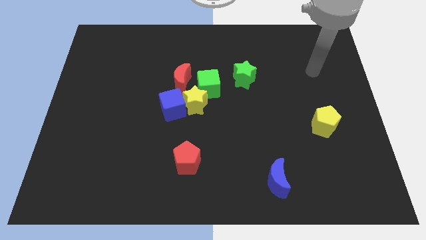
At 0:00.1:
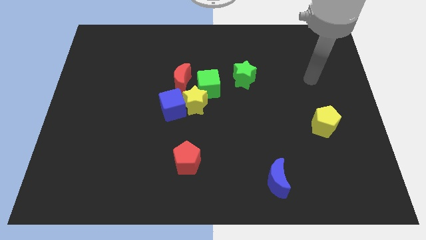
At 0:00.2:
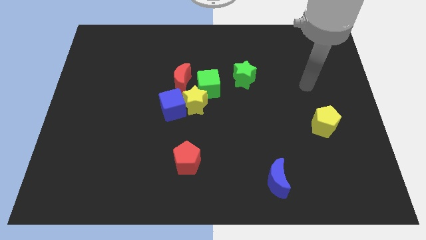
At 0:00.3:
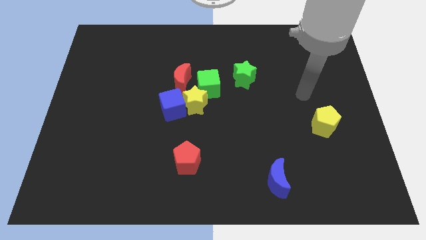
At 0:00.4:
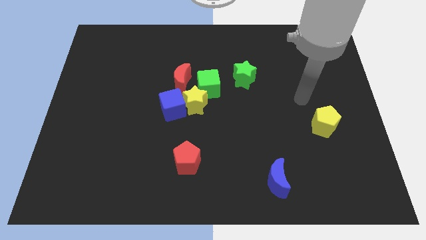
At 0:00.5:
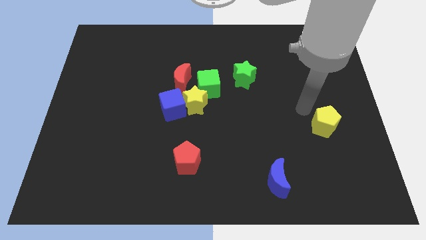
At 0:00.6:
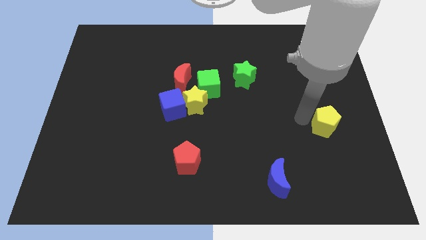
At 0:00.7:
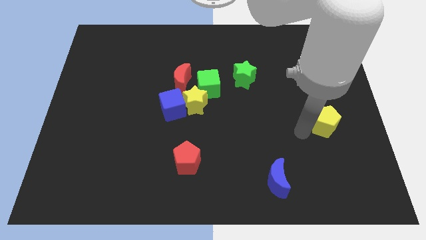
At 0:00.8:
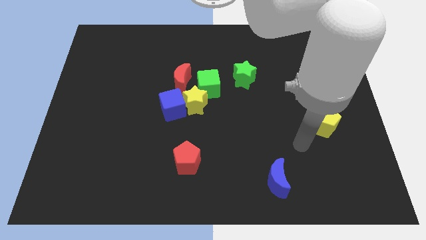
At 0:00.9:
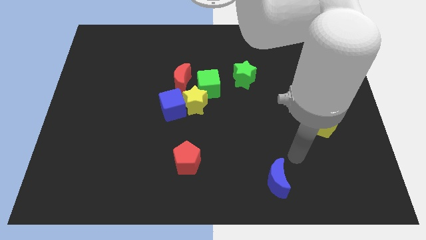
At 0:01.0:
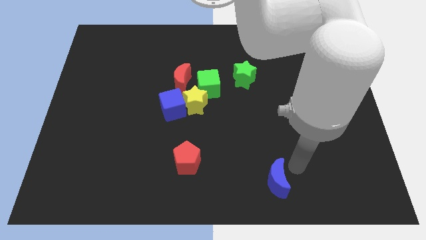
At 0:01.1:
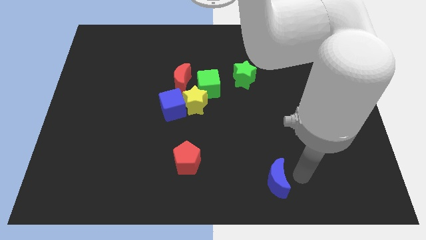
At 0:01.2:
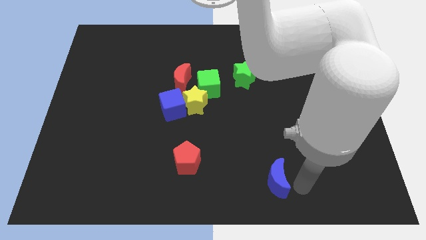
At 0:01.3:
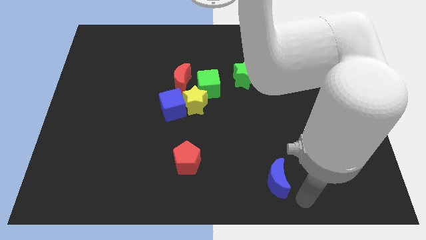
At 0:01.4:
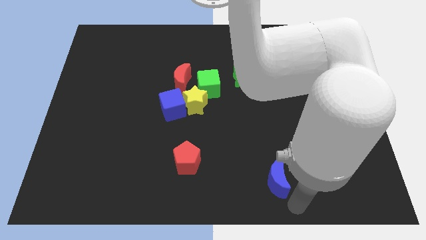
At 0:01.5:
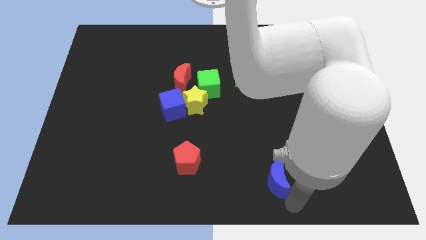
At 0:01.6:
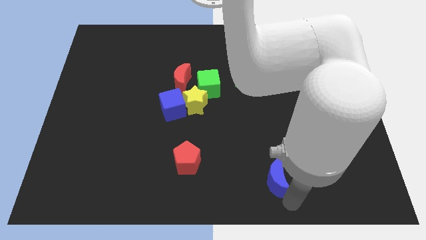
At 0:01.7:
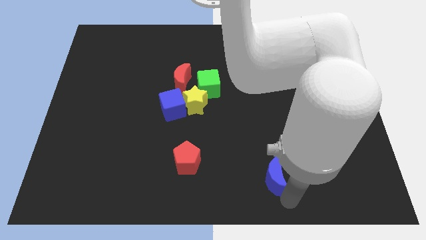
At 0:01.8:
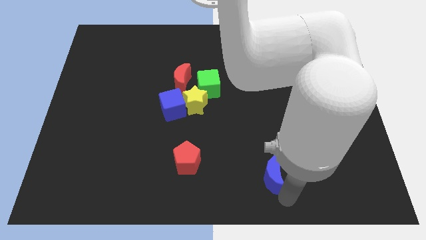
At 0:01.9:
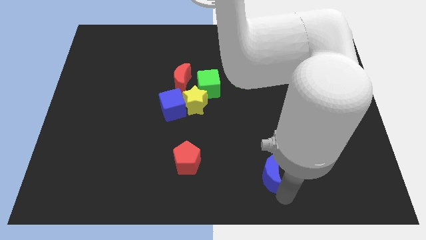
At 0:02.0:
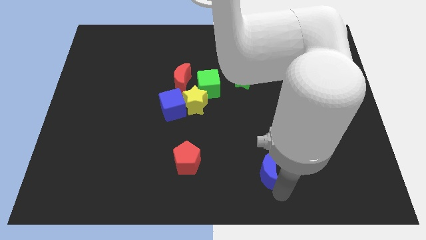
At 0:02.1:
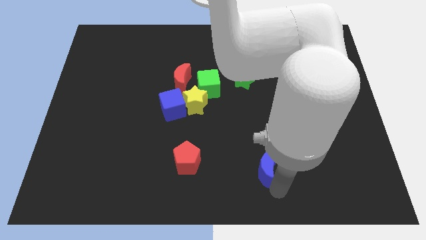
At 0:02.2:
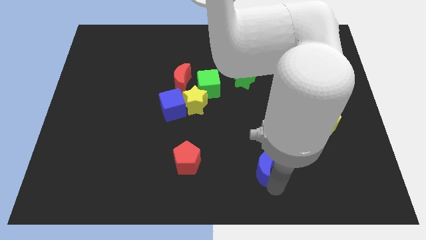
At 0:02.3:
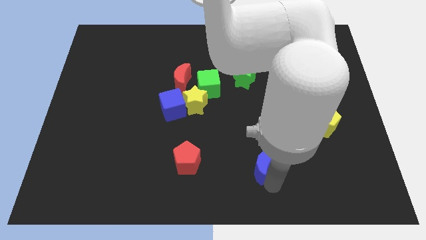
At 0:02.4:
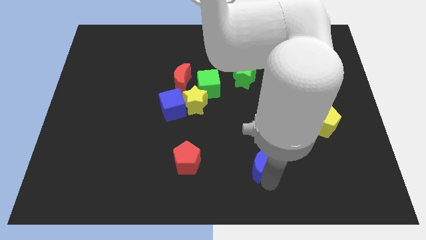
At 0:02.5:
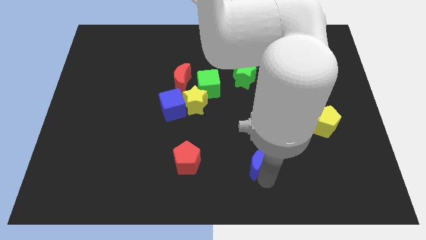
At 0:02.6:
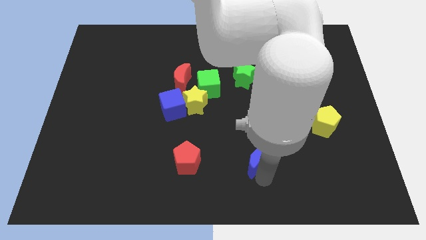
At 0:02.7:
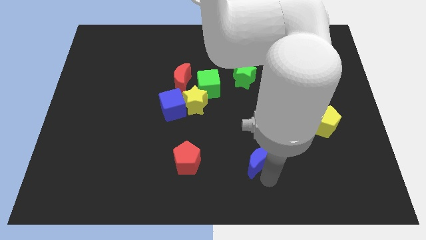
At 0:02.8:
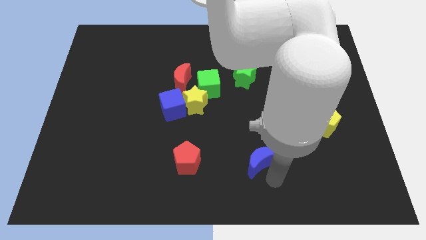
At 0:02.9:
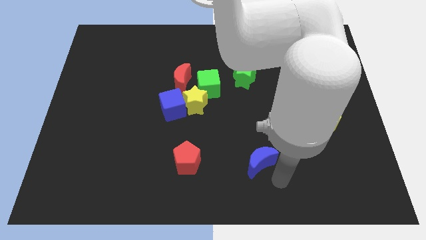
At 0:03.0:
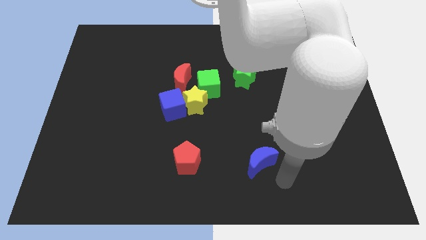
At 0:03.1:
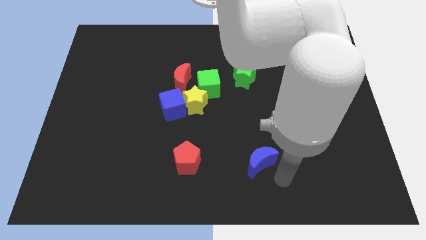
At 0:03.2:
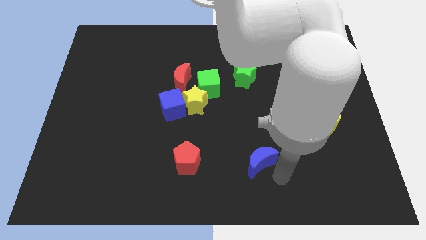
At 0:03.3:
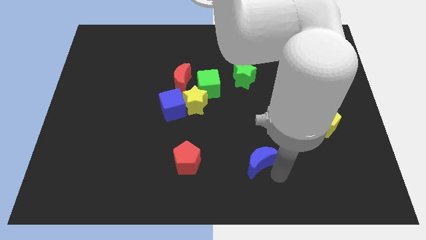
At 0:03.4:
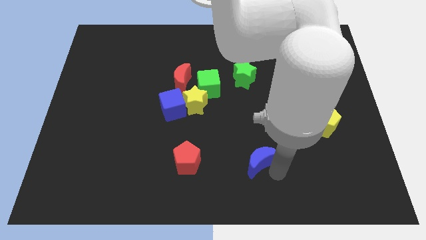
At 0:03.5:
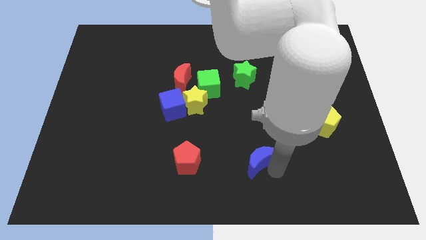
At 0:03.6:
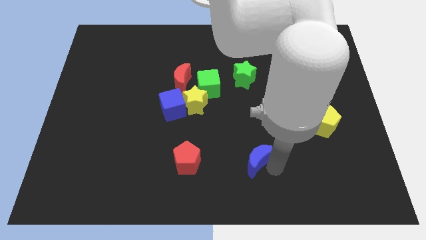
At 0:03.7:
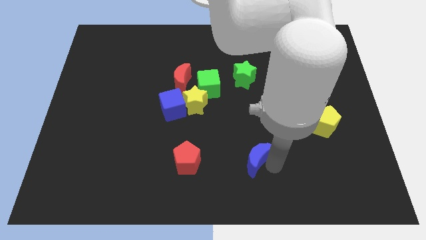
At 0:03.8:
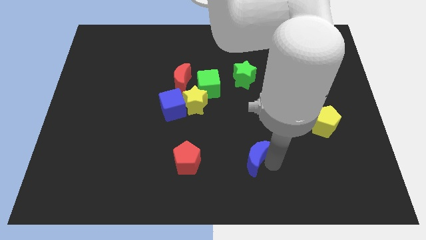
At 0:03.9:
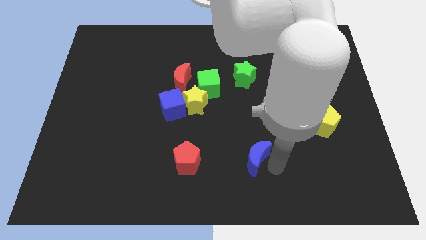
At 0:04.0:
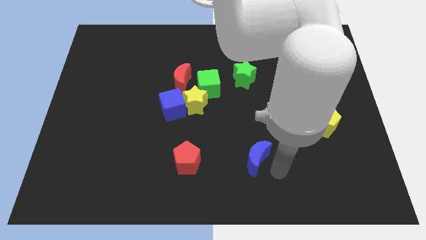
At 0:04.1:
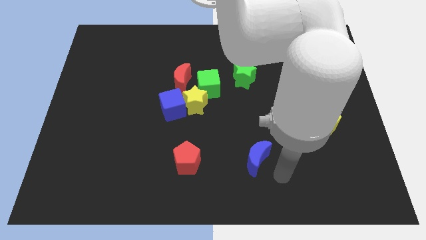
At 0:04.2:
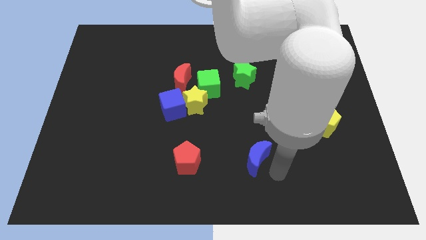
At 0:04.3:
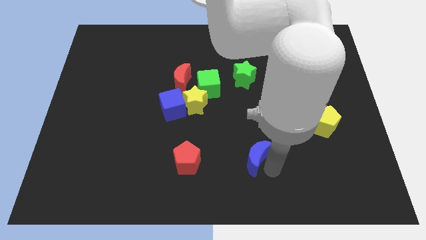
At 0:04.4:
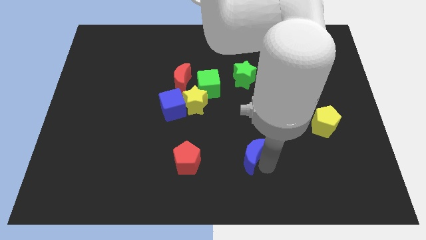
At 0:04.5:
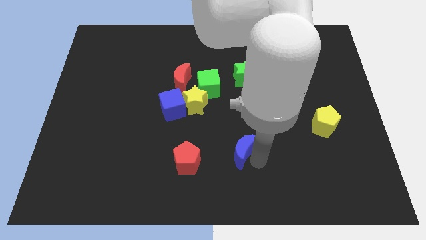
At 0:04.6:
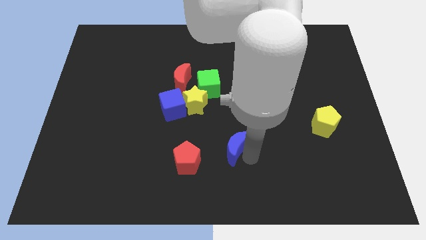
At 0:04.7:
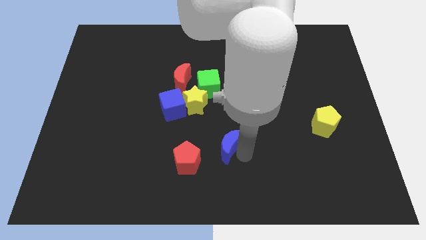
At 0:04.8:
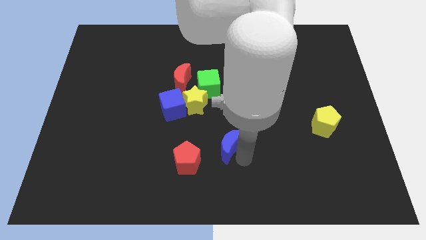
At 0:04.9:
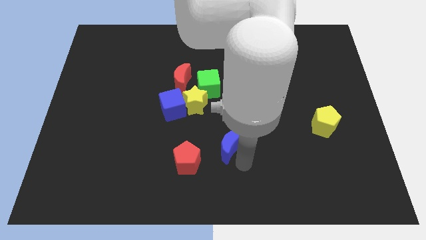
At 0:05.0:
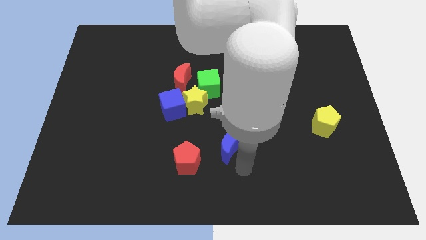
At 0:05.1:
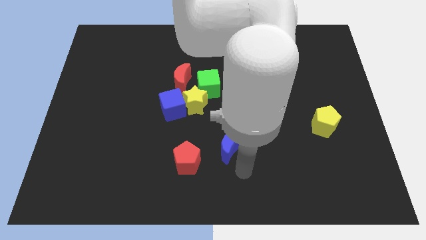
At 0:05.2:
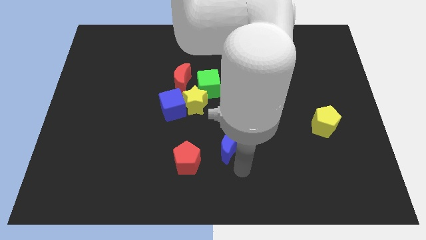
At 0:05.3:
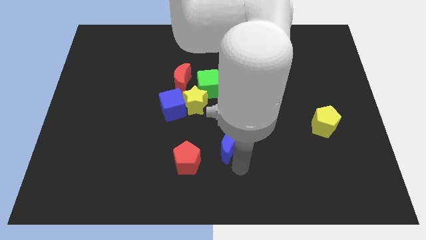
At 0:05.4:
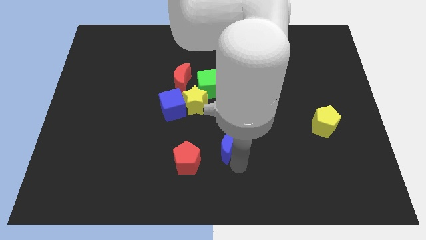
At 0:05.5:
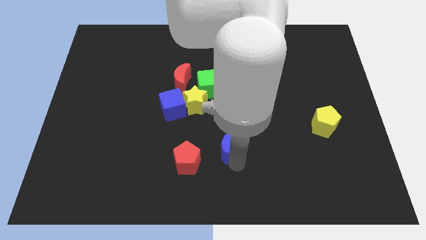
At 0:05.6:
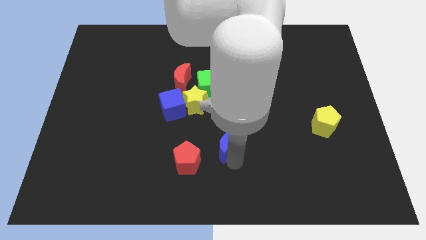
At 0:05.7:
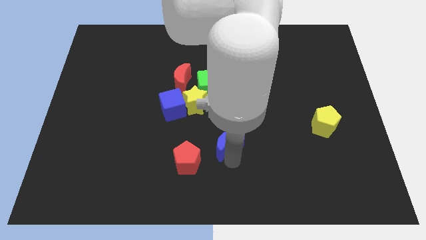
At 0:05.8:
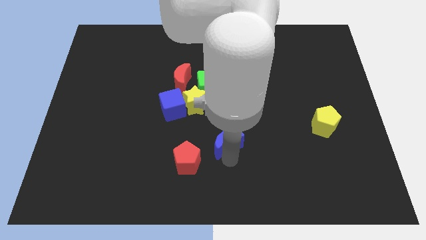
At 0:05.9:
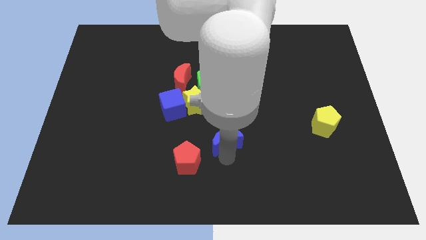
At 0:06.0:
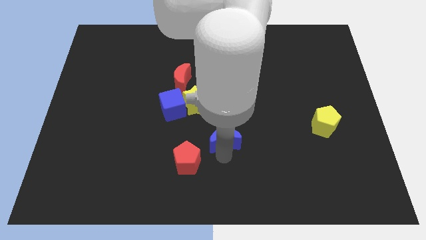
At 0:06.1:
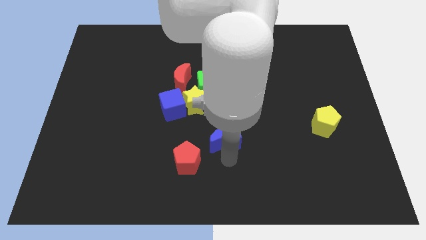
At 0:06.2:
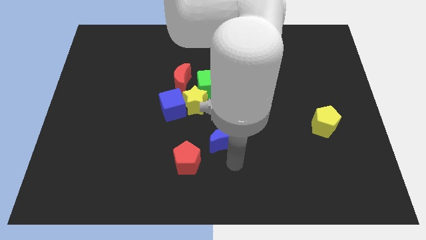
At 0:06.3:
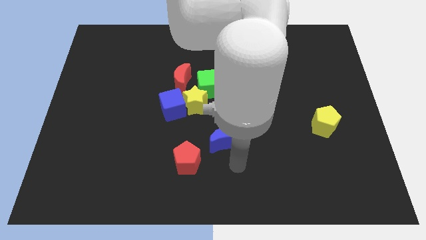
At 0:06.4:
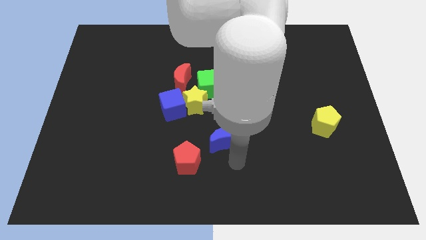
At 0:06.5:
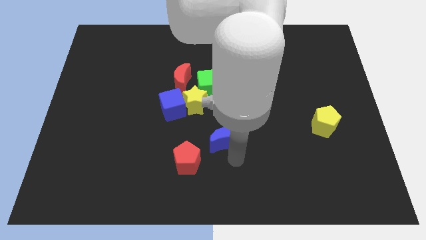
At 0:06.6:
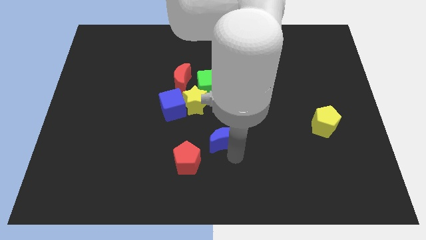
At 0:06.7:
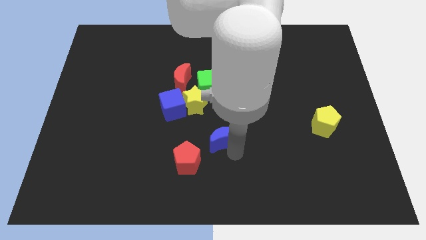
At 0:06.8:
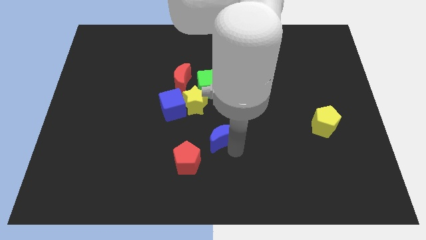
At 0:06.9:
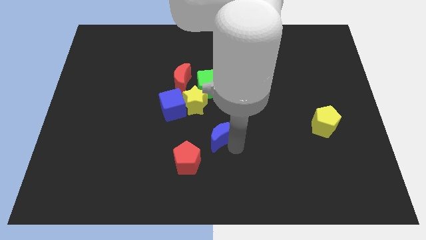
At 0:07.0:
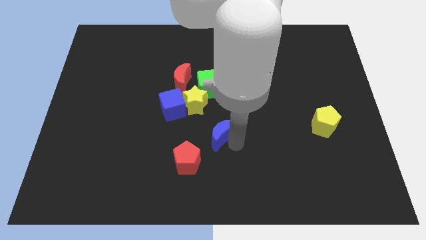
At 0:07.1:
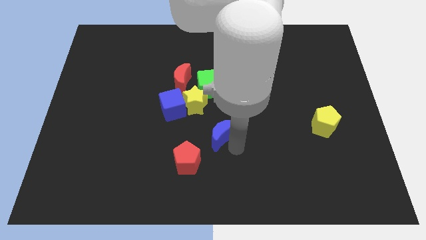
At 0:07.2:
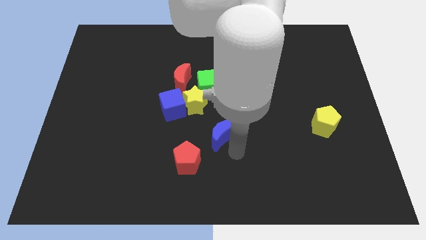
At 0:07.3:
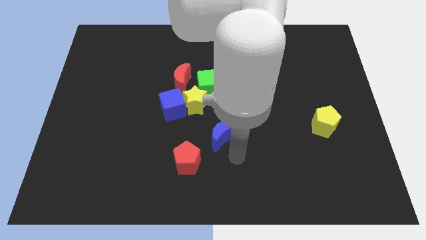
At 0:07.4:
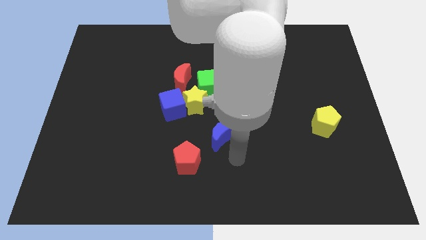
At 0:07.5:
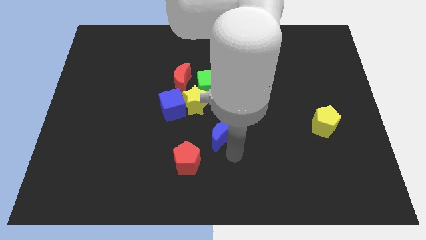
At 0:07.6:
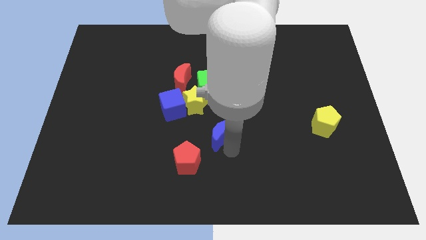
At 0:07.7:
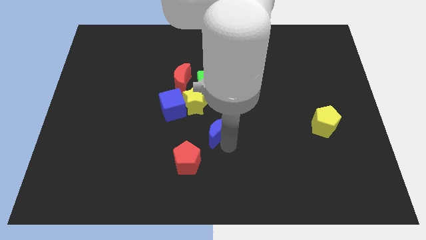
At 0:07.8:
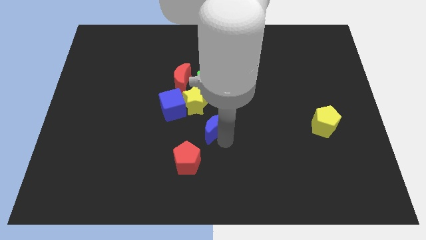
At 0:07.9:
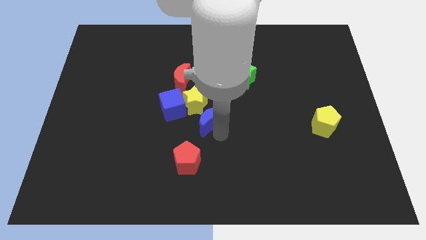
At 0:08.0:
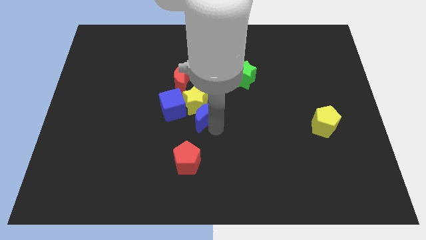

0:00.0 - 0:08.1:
put the blue moon close to the yellow star
